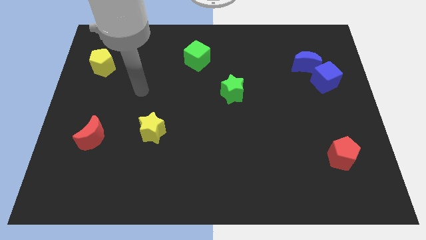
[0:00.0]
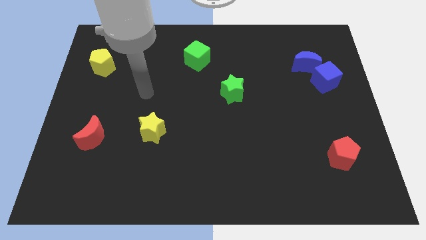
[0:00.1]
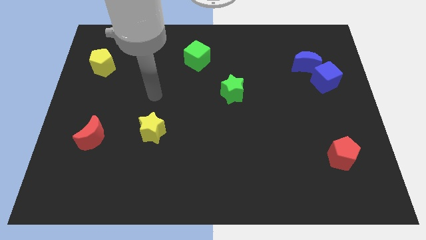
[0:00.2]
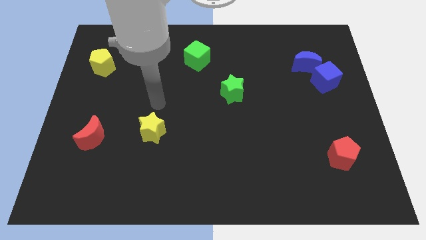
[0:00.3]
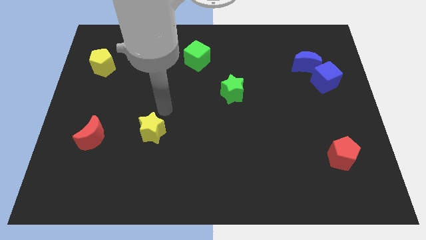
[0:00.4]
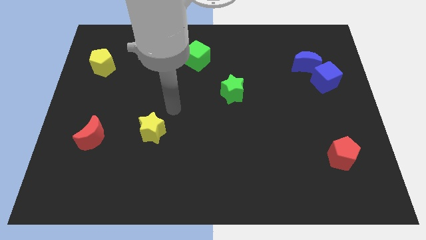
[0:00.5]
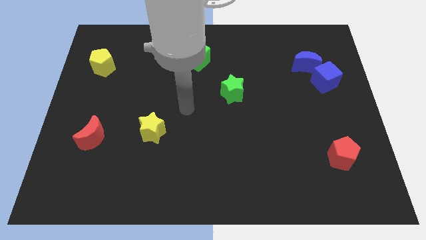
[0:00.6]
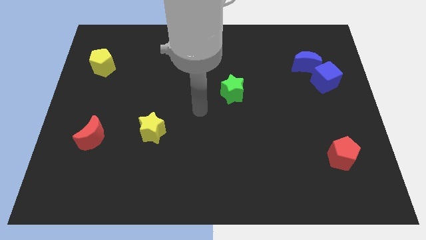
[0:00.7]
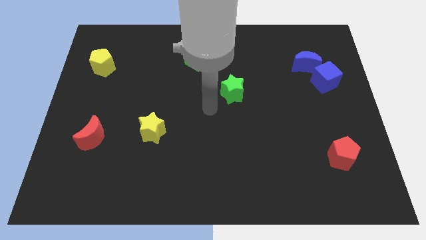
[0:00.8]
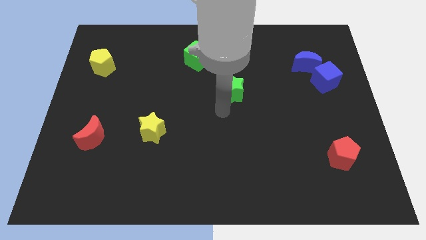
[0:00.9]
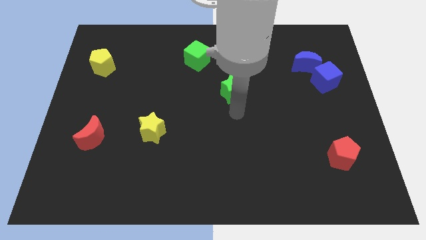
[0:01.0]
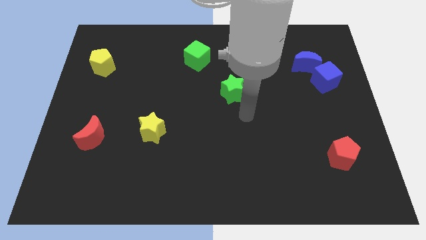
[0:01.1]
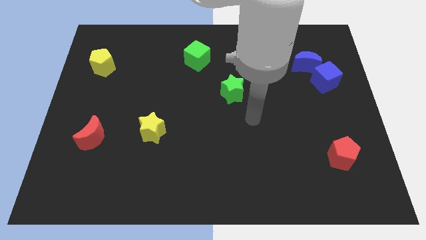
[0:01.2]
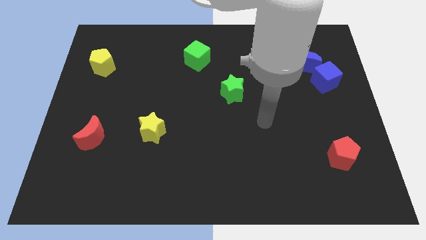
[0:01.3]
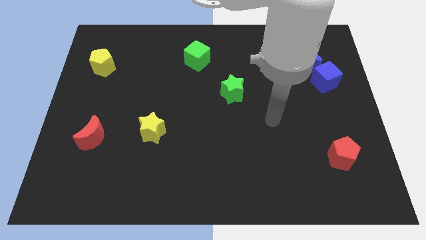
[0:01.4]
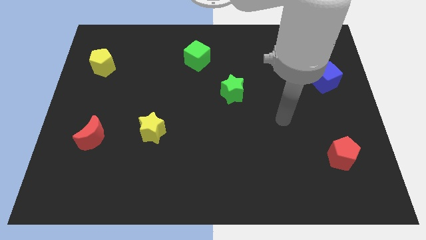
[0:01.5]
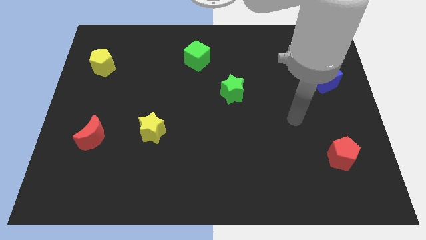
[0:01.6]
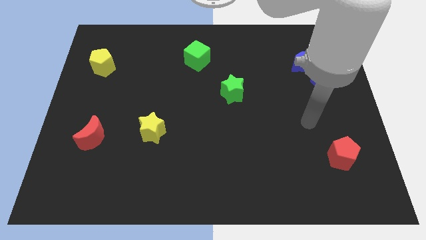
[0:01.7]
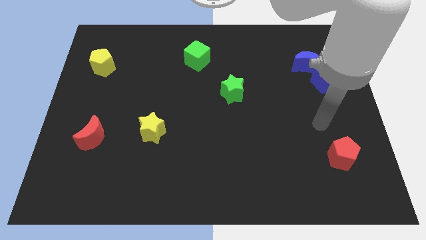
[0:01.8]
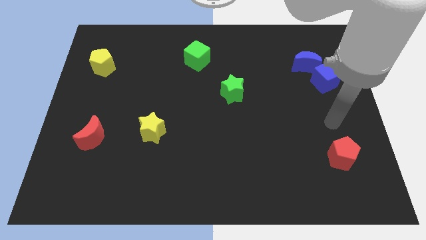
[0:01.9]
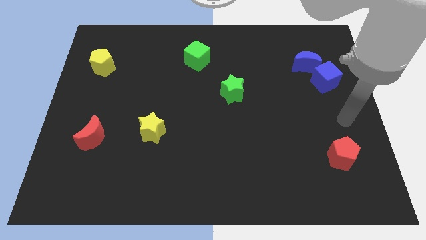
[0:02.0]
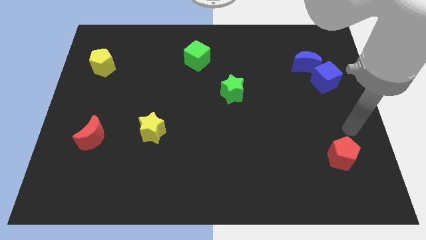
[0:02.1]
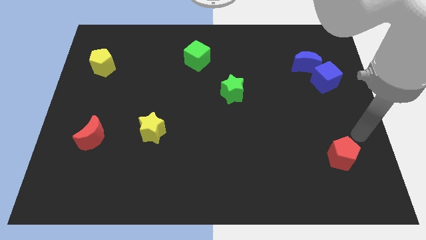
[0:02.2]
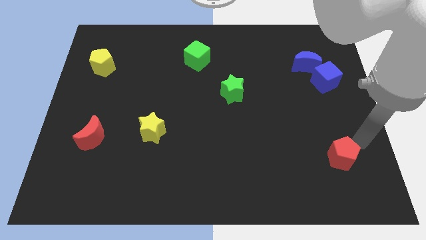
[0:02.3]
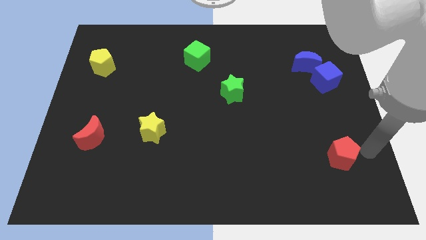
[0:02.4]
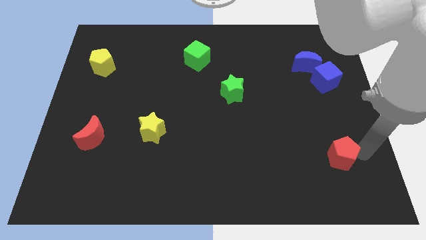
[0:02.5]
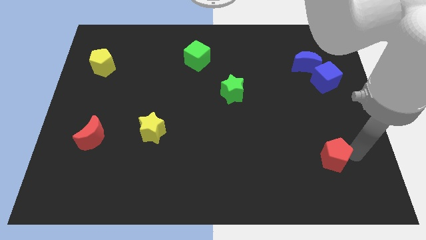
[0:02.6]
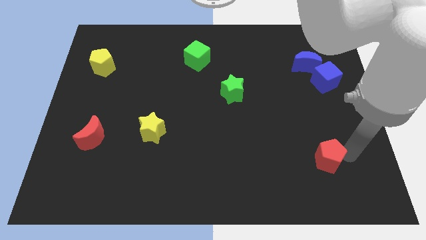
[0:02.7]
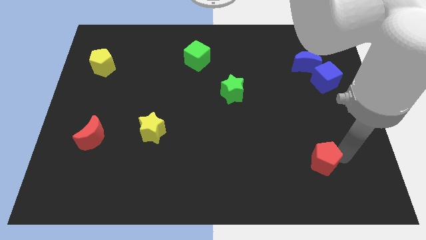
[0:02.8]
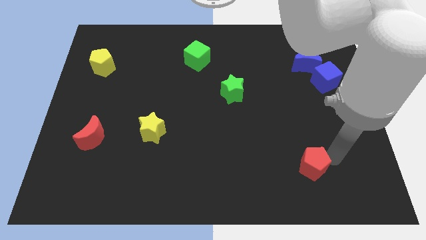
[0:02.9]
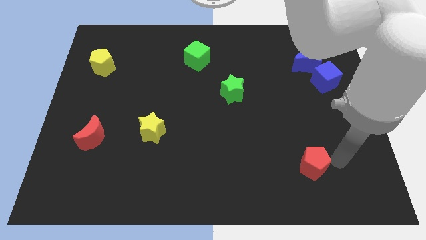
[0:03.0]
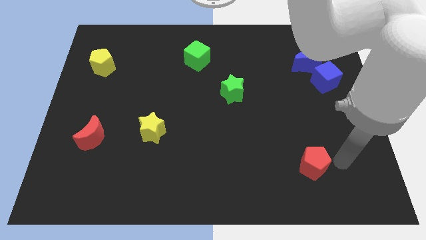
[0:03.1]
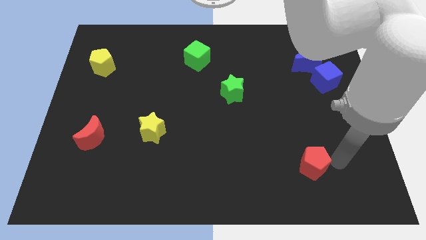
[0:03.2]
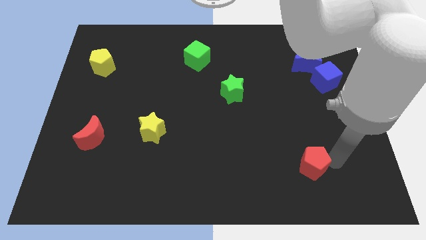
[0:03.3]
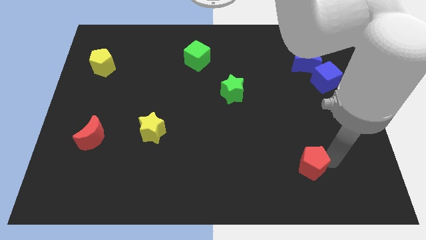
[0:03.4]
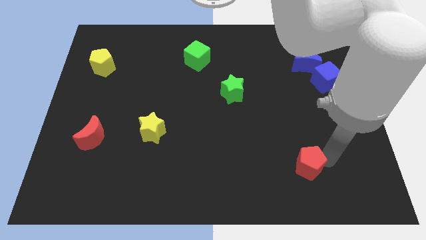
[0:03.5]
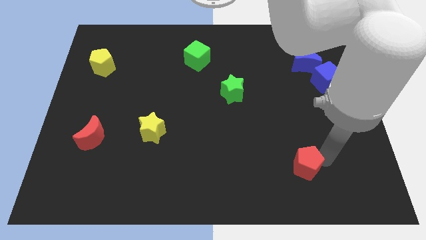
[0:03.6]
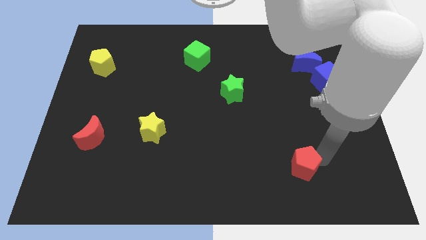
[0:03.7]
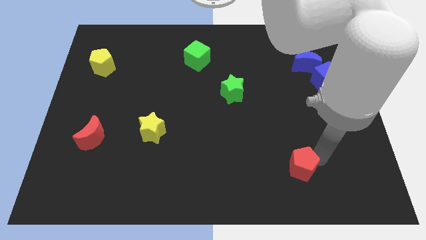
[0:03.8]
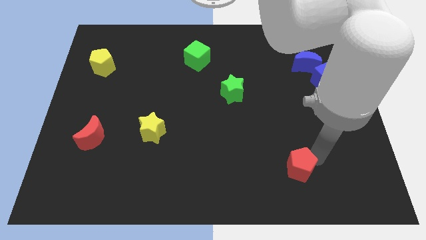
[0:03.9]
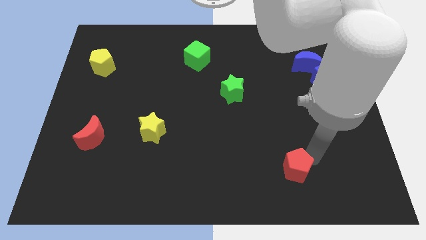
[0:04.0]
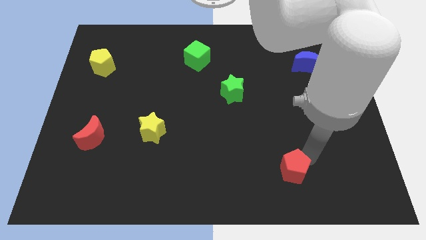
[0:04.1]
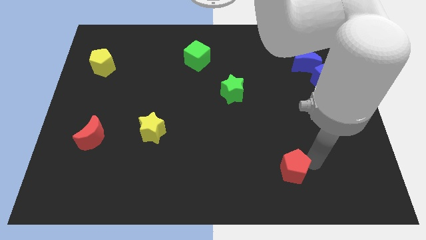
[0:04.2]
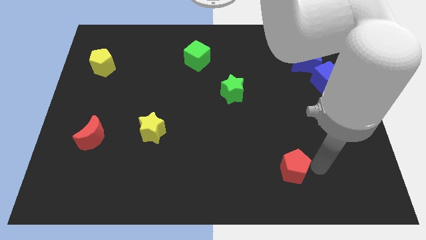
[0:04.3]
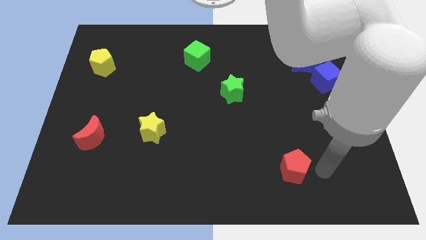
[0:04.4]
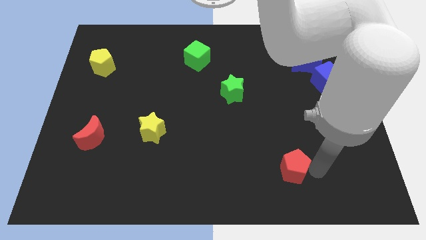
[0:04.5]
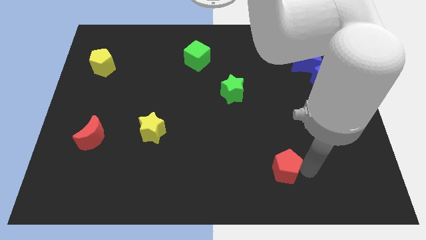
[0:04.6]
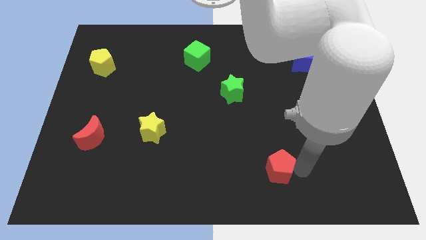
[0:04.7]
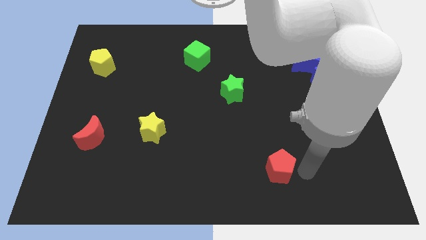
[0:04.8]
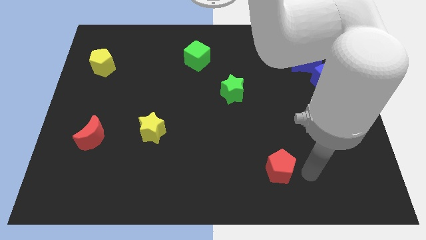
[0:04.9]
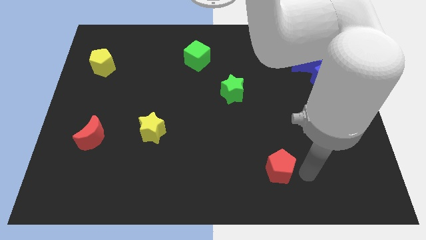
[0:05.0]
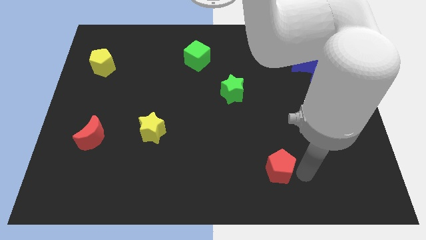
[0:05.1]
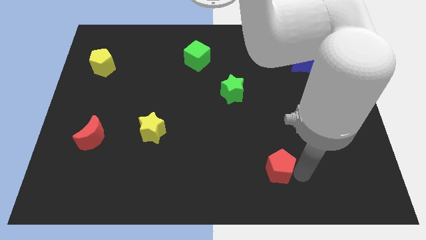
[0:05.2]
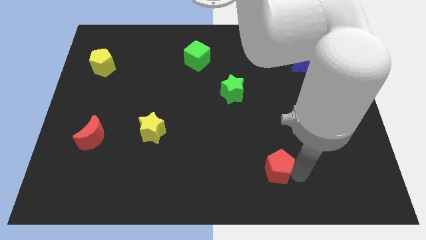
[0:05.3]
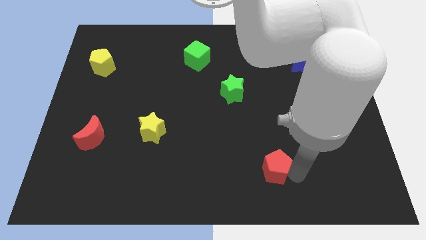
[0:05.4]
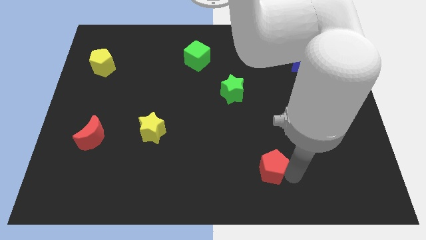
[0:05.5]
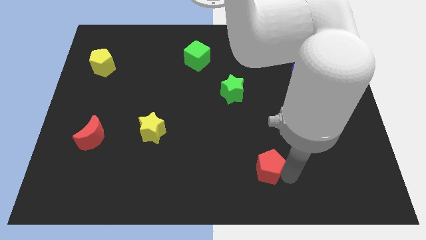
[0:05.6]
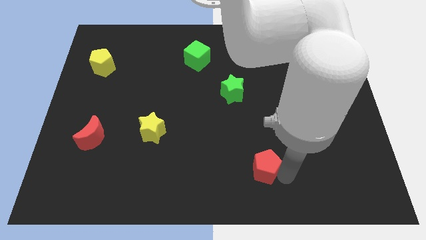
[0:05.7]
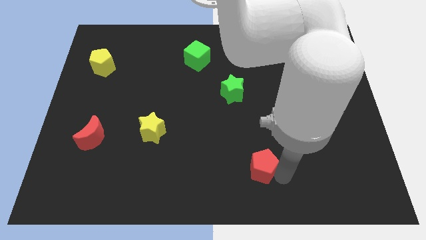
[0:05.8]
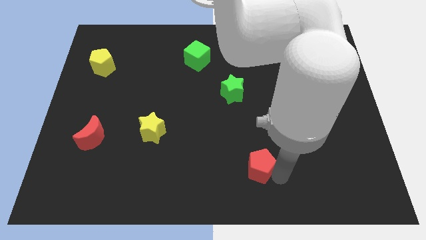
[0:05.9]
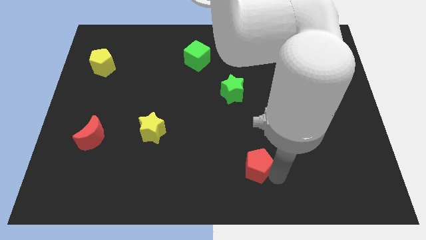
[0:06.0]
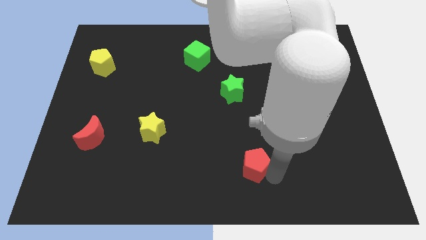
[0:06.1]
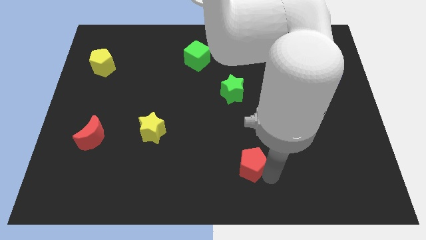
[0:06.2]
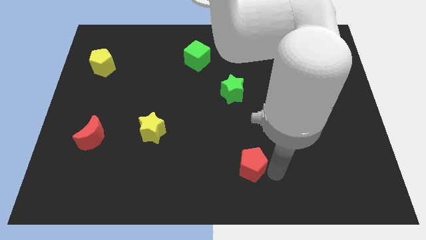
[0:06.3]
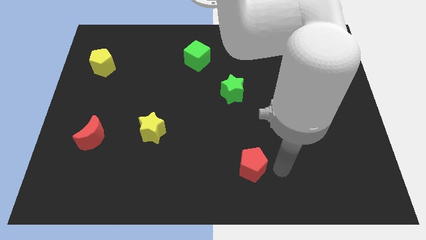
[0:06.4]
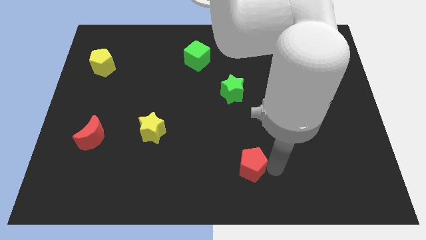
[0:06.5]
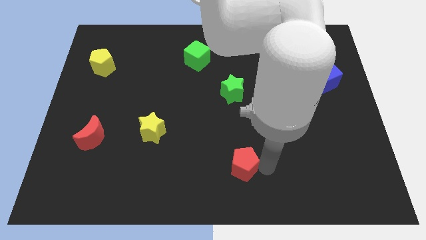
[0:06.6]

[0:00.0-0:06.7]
slide the red pentagon left

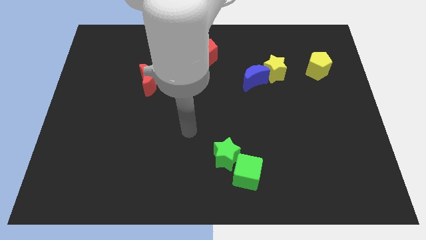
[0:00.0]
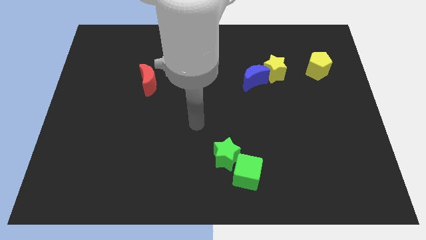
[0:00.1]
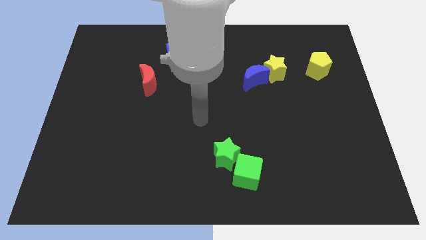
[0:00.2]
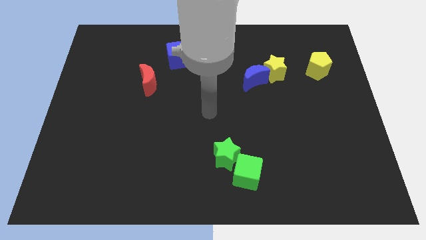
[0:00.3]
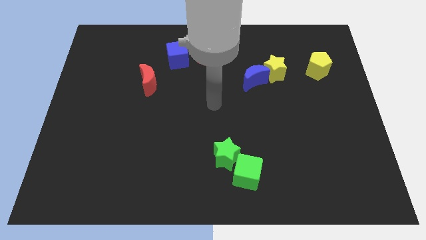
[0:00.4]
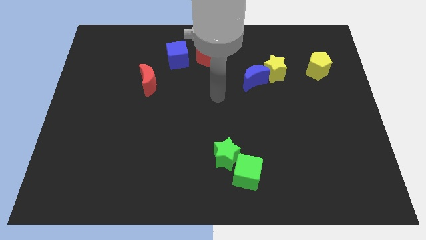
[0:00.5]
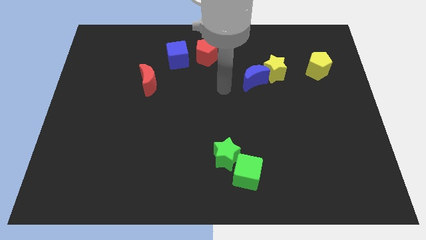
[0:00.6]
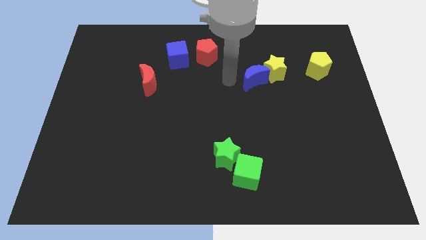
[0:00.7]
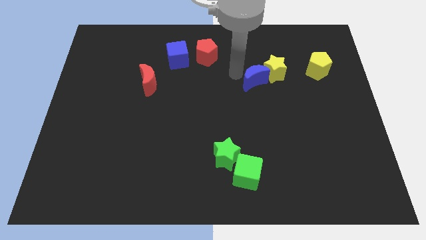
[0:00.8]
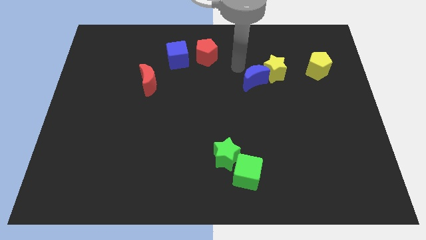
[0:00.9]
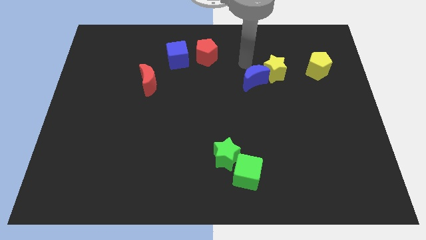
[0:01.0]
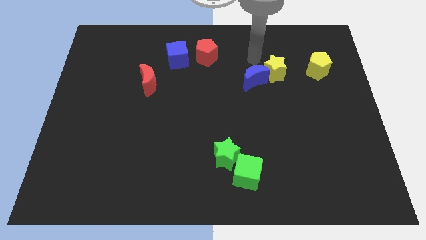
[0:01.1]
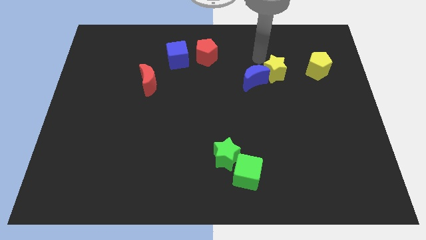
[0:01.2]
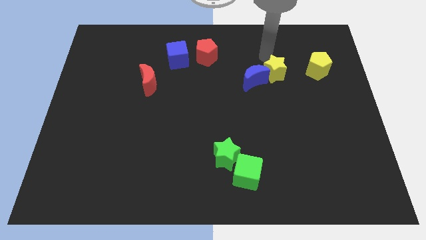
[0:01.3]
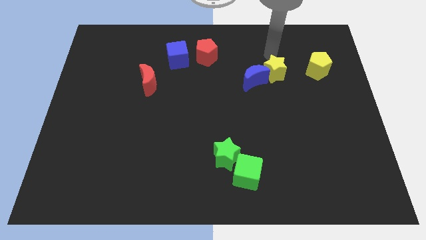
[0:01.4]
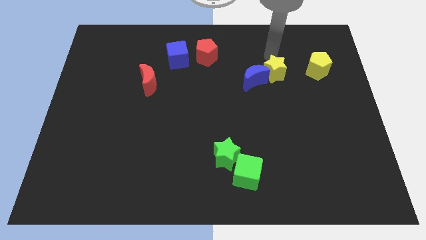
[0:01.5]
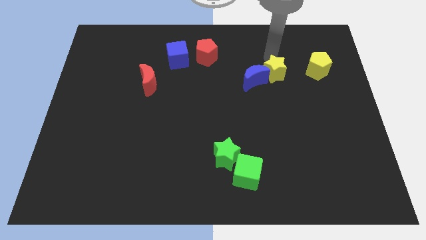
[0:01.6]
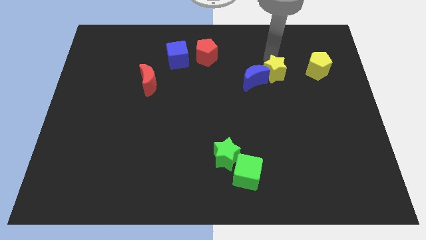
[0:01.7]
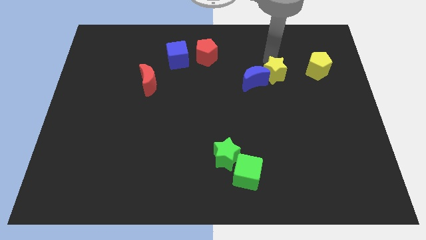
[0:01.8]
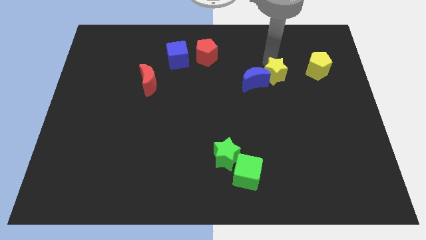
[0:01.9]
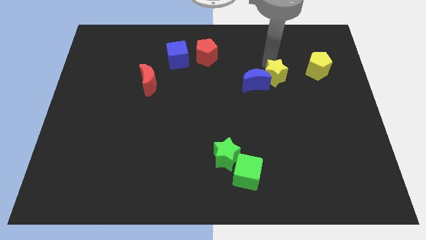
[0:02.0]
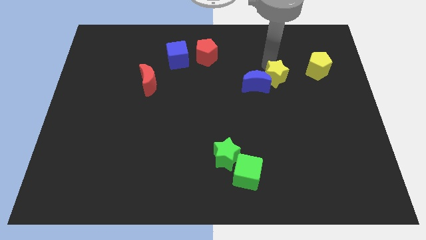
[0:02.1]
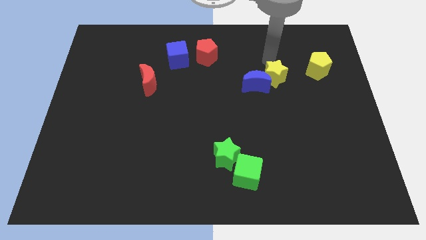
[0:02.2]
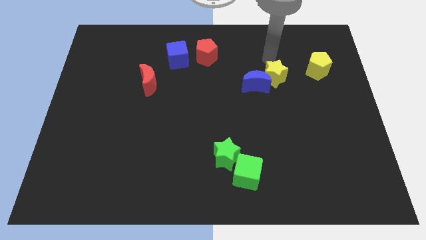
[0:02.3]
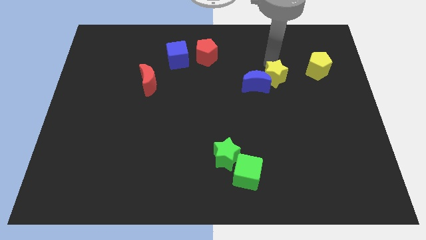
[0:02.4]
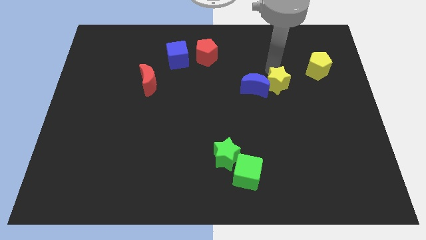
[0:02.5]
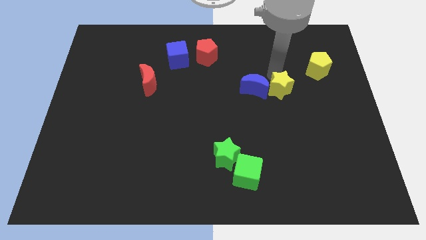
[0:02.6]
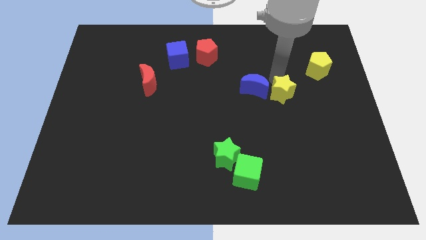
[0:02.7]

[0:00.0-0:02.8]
slide the yellow star down a bit
